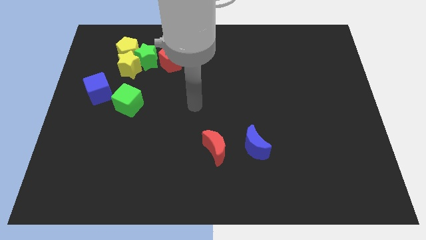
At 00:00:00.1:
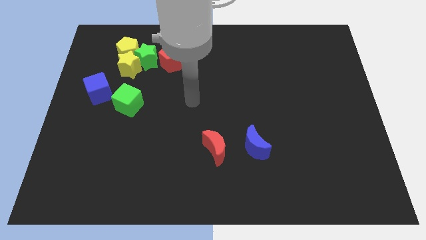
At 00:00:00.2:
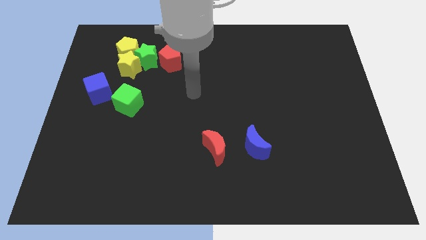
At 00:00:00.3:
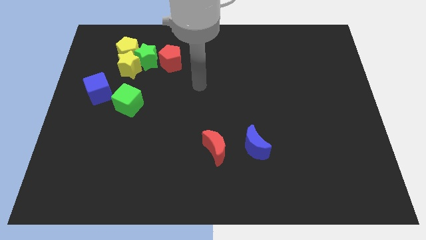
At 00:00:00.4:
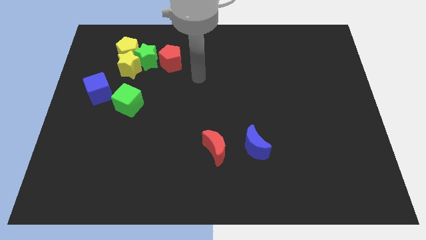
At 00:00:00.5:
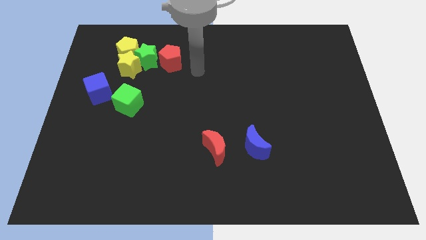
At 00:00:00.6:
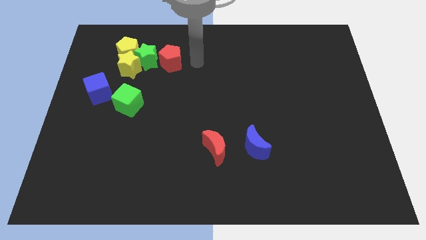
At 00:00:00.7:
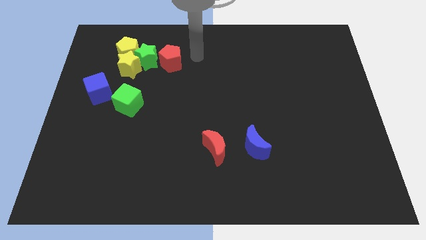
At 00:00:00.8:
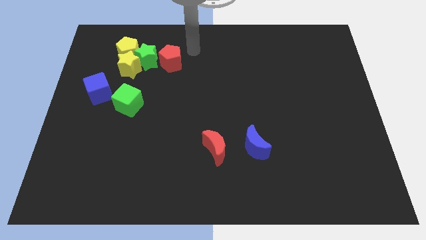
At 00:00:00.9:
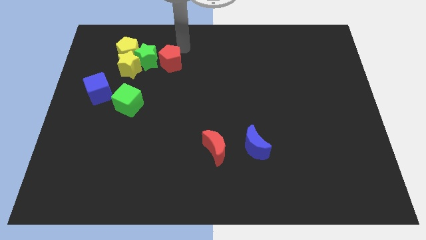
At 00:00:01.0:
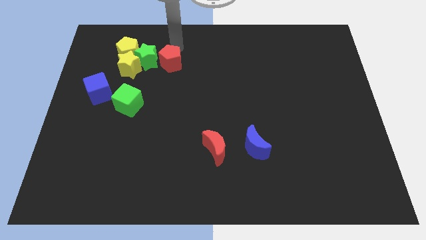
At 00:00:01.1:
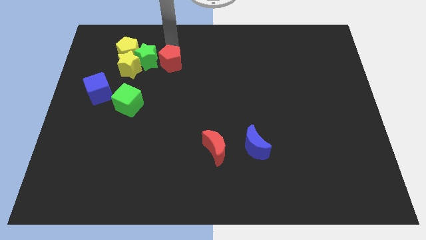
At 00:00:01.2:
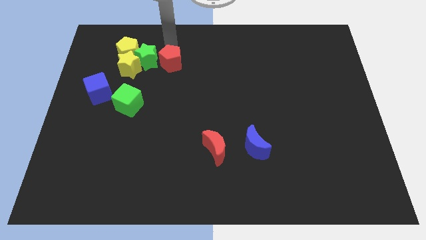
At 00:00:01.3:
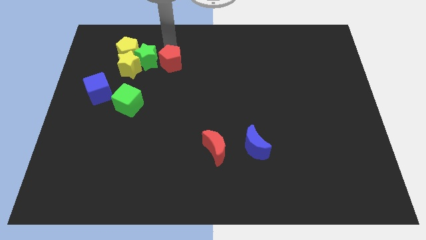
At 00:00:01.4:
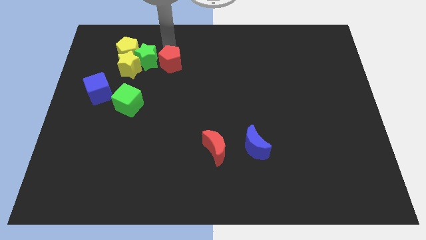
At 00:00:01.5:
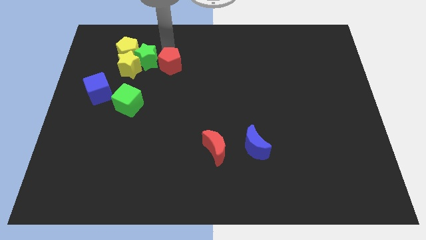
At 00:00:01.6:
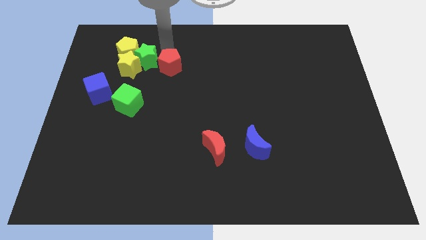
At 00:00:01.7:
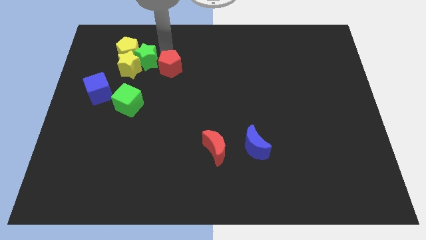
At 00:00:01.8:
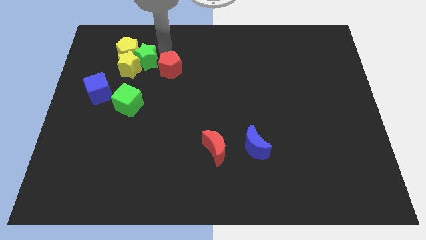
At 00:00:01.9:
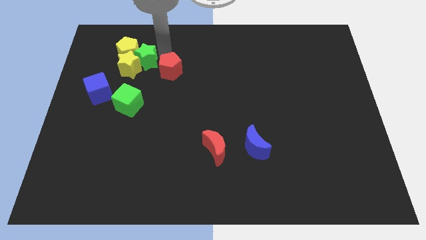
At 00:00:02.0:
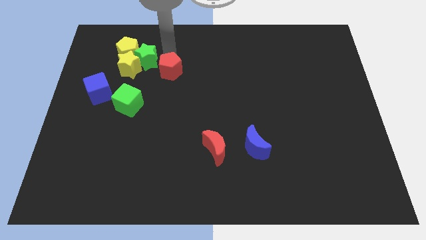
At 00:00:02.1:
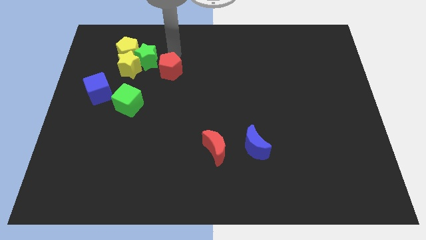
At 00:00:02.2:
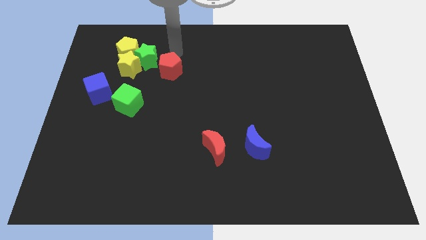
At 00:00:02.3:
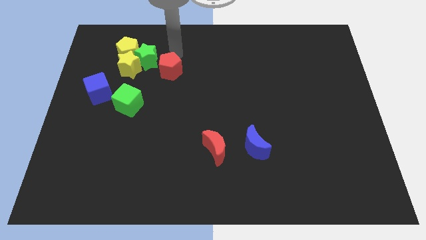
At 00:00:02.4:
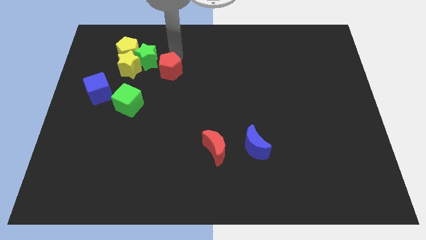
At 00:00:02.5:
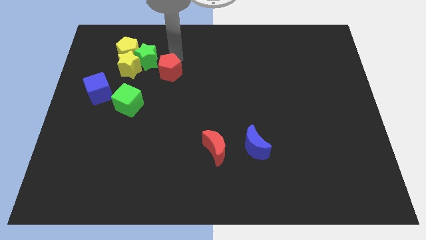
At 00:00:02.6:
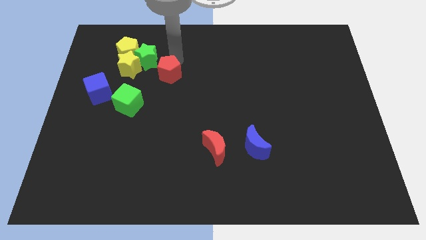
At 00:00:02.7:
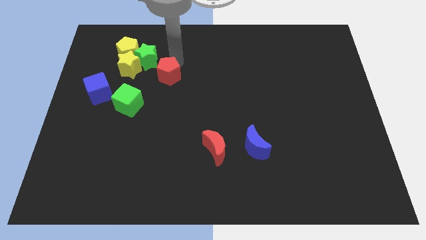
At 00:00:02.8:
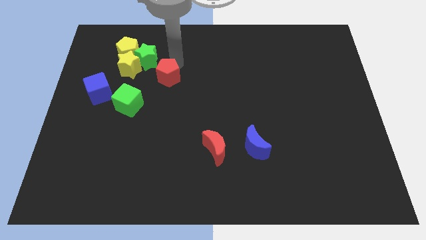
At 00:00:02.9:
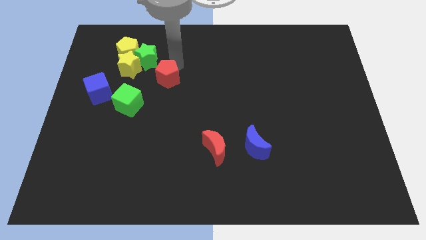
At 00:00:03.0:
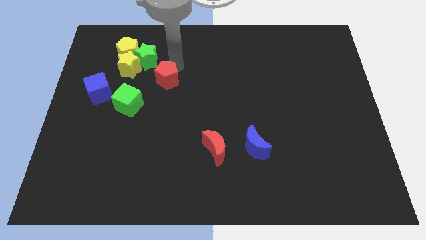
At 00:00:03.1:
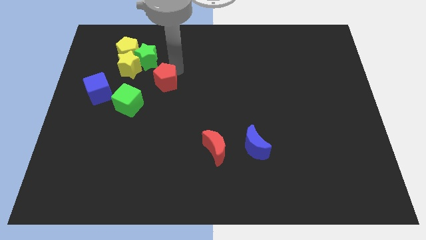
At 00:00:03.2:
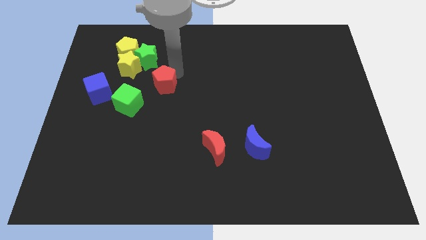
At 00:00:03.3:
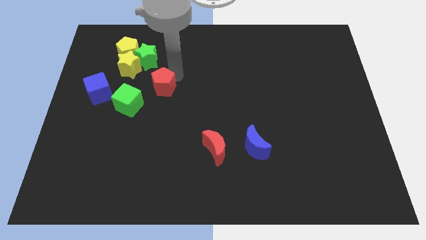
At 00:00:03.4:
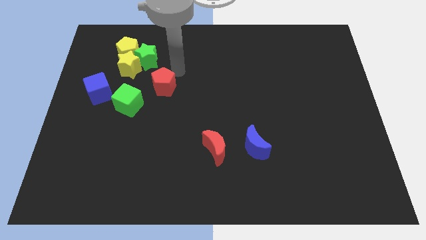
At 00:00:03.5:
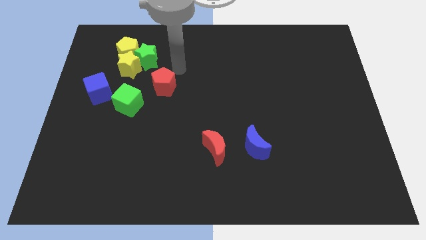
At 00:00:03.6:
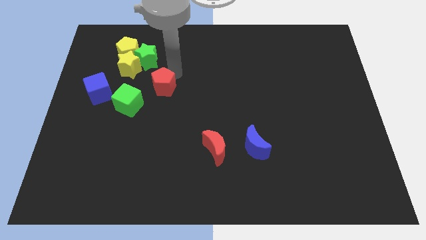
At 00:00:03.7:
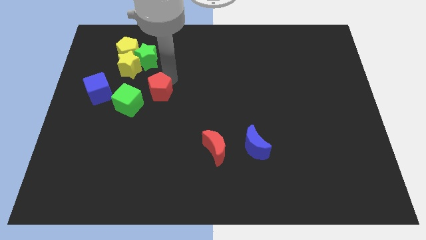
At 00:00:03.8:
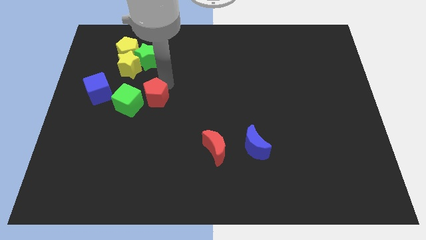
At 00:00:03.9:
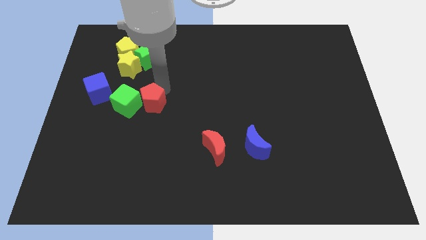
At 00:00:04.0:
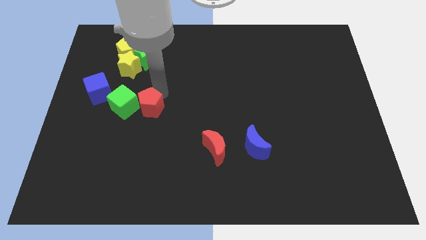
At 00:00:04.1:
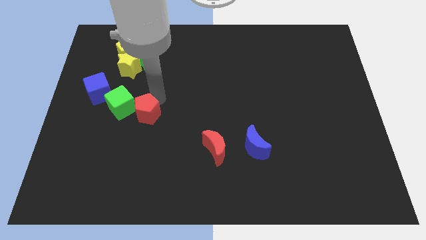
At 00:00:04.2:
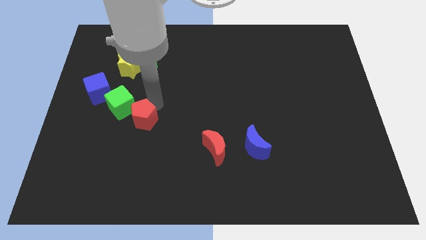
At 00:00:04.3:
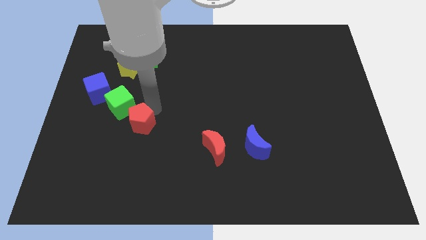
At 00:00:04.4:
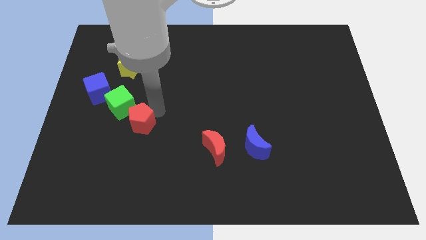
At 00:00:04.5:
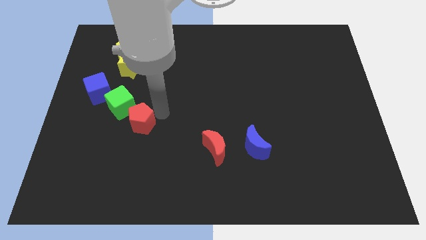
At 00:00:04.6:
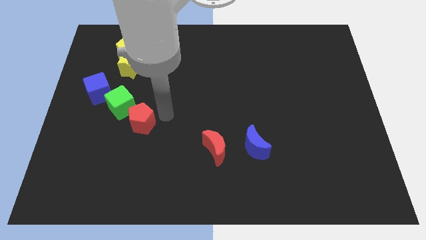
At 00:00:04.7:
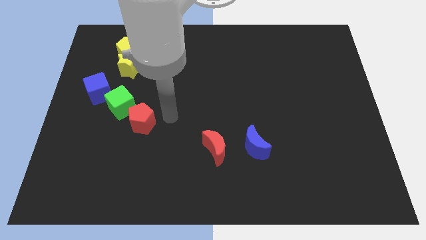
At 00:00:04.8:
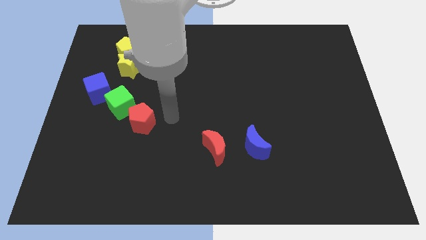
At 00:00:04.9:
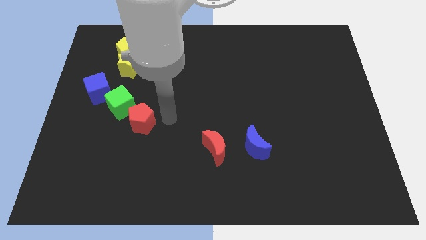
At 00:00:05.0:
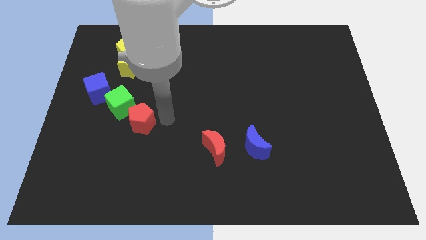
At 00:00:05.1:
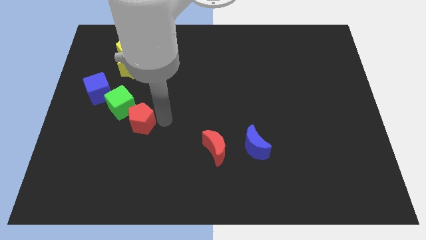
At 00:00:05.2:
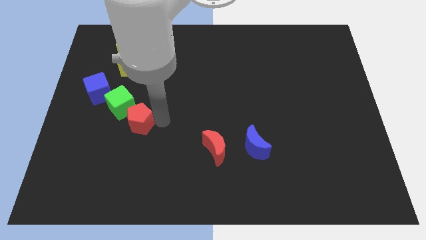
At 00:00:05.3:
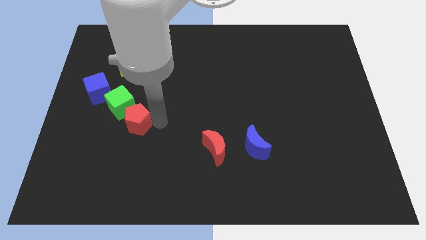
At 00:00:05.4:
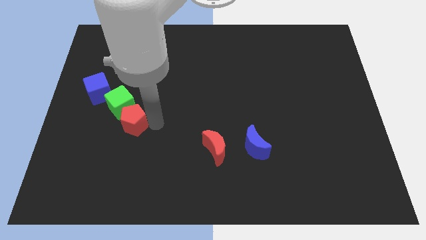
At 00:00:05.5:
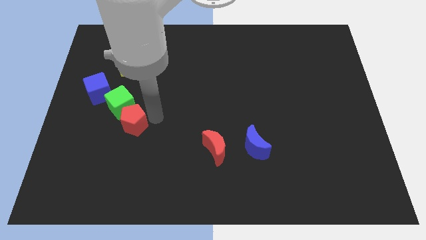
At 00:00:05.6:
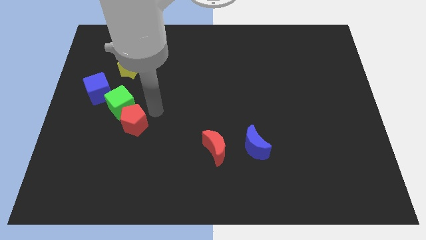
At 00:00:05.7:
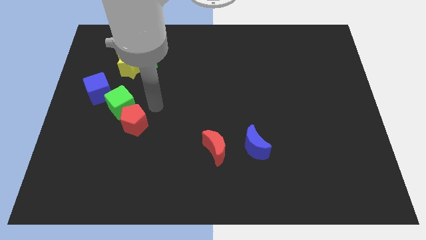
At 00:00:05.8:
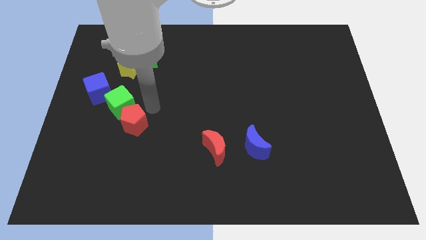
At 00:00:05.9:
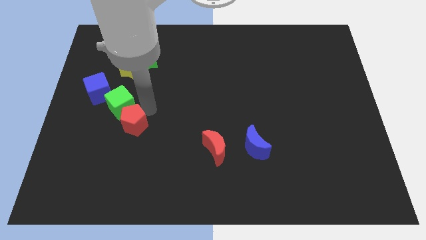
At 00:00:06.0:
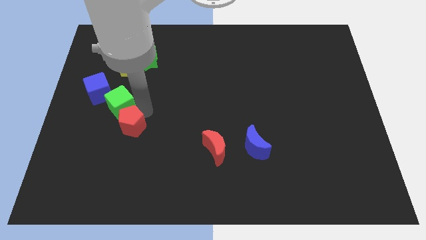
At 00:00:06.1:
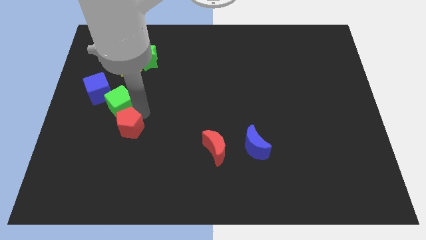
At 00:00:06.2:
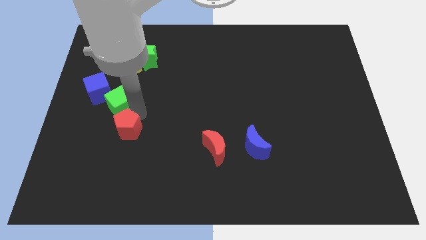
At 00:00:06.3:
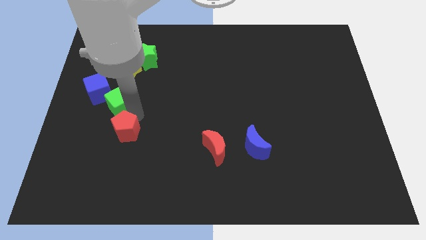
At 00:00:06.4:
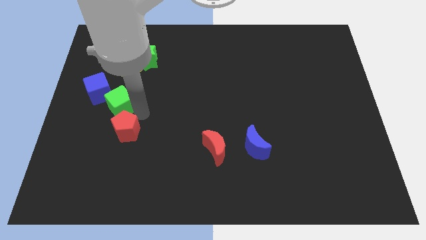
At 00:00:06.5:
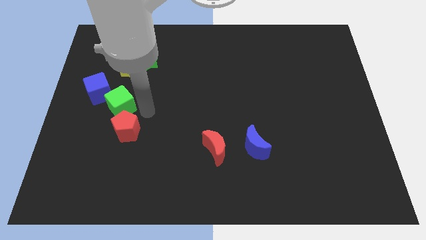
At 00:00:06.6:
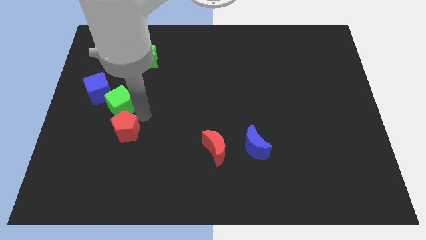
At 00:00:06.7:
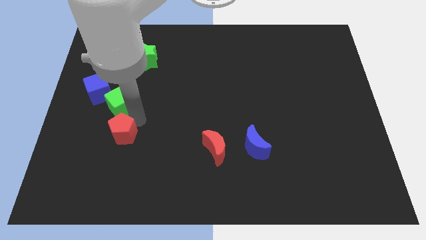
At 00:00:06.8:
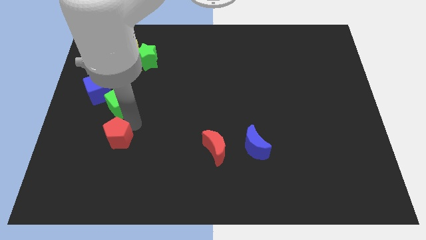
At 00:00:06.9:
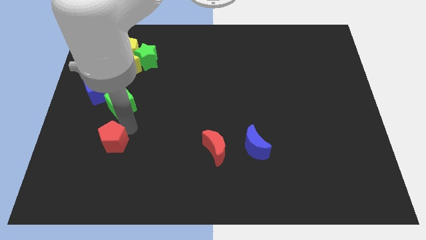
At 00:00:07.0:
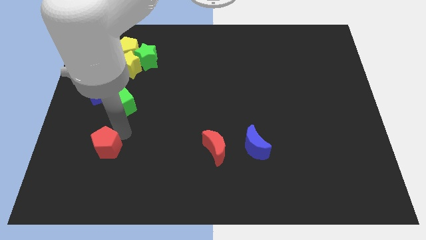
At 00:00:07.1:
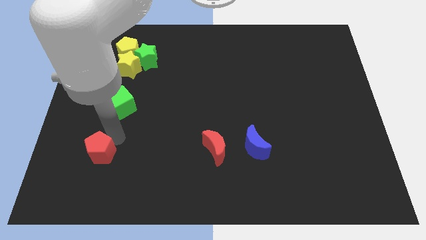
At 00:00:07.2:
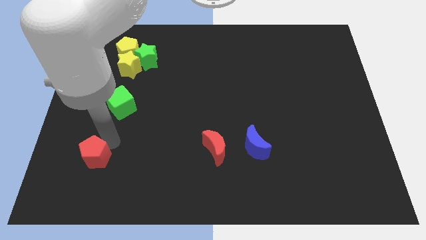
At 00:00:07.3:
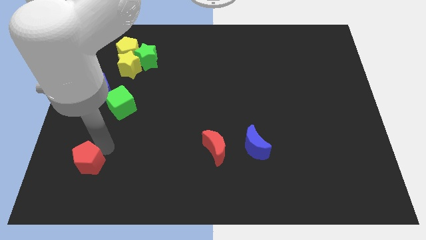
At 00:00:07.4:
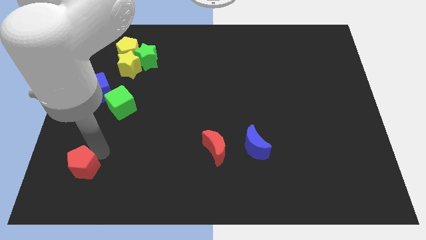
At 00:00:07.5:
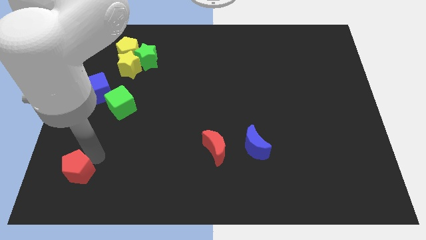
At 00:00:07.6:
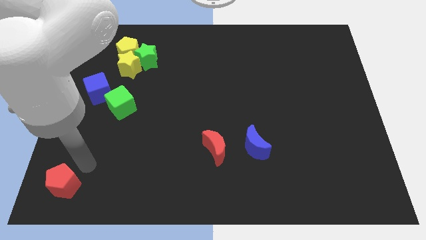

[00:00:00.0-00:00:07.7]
put the red pentagon to the lower left corner
